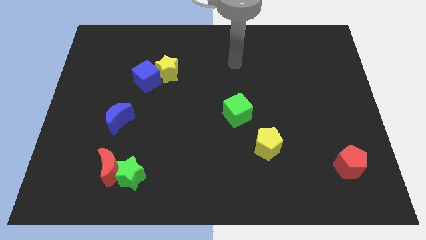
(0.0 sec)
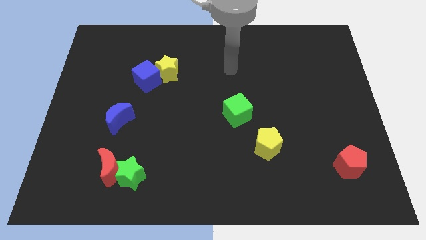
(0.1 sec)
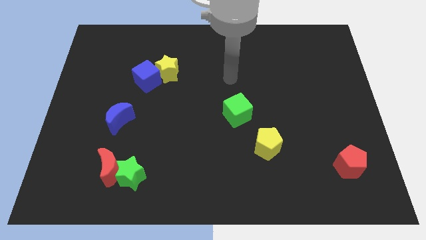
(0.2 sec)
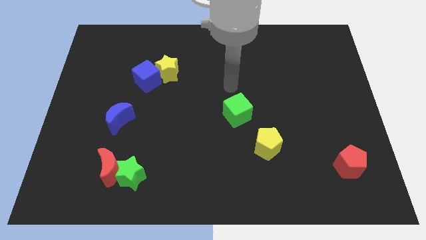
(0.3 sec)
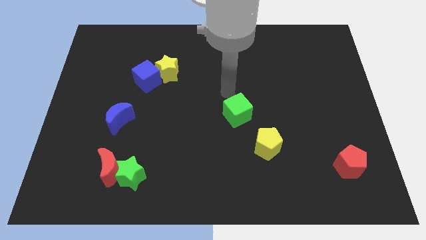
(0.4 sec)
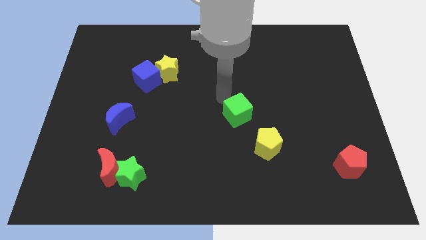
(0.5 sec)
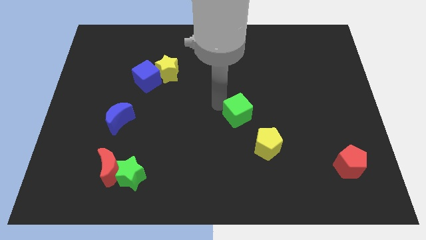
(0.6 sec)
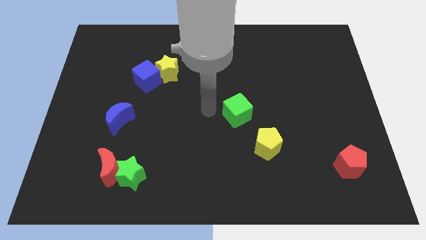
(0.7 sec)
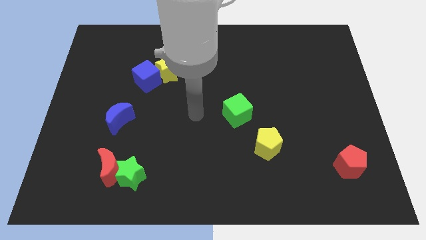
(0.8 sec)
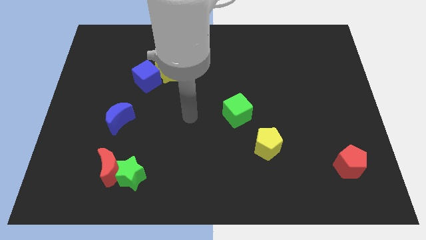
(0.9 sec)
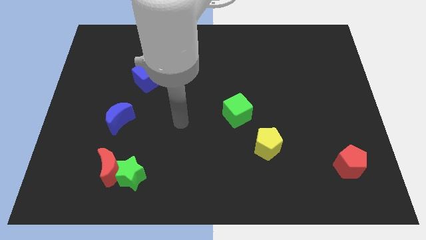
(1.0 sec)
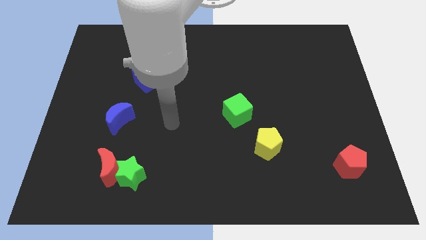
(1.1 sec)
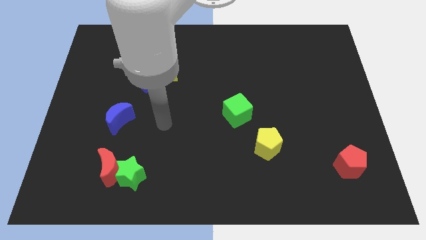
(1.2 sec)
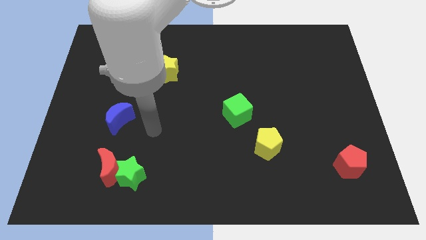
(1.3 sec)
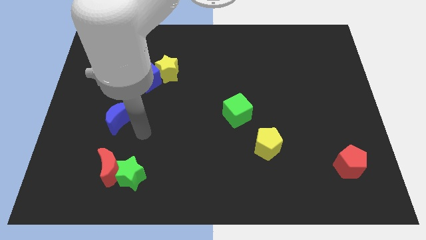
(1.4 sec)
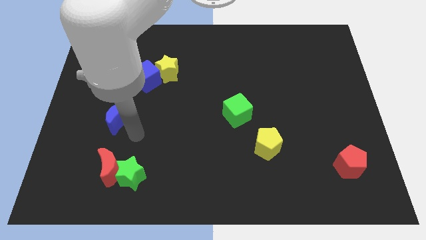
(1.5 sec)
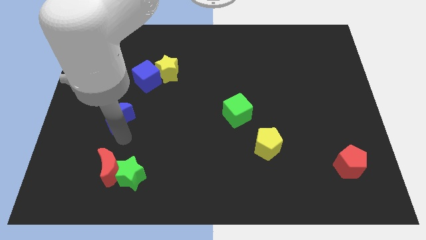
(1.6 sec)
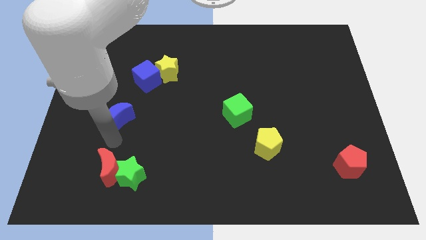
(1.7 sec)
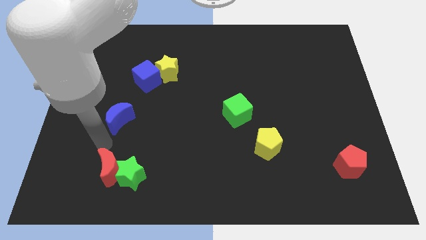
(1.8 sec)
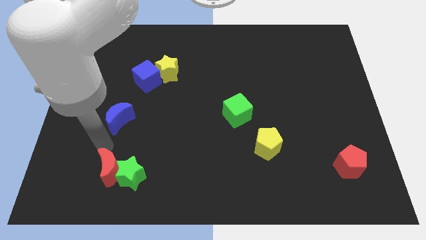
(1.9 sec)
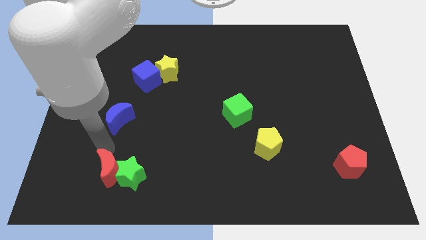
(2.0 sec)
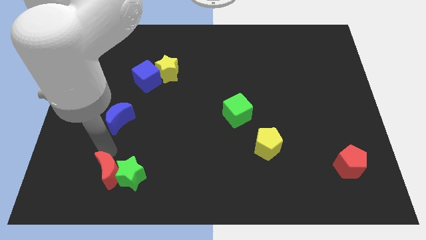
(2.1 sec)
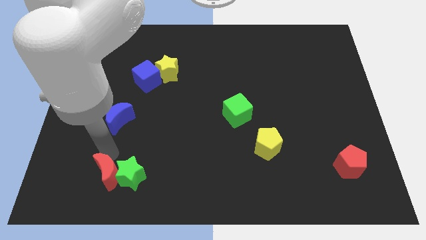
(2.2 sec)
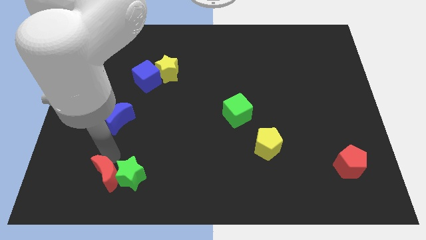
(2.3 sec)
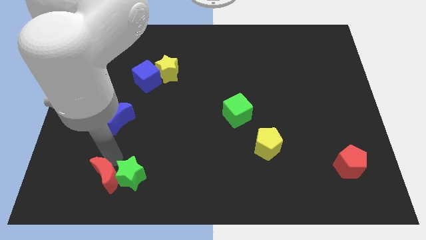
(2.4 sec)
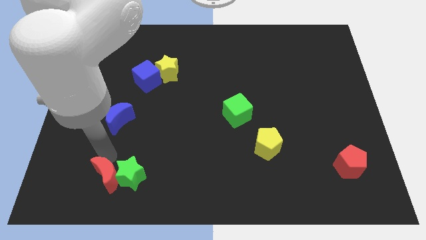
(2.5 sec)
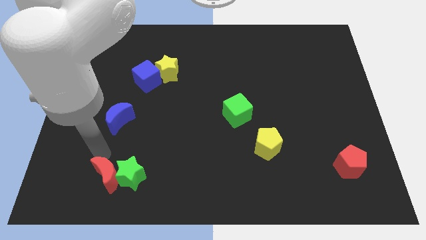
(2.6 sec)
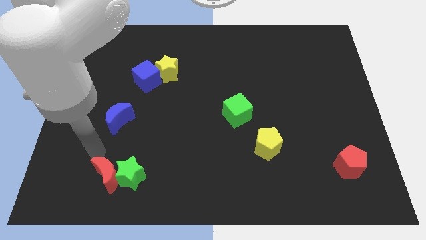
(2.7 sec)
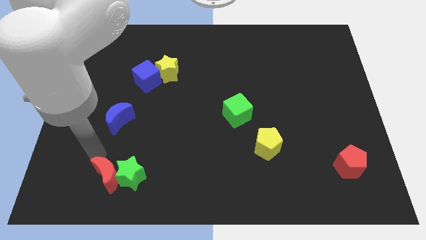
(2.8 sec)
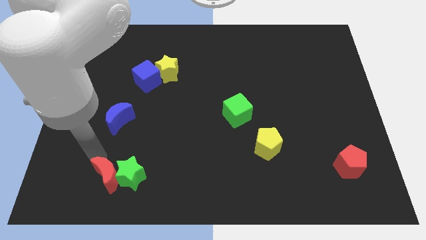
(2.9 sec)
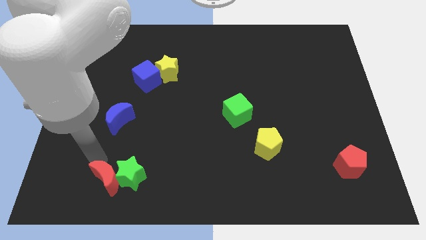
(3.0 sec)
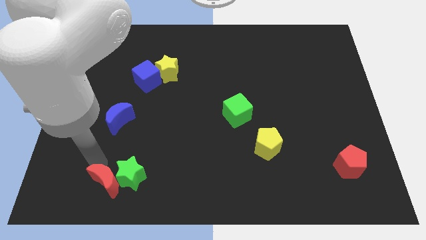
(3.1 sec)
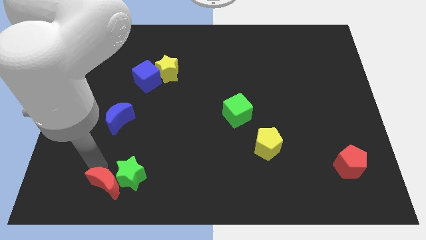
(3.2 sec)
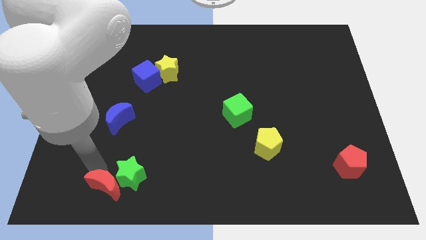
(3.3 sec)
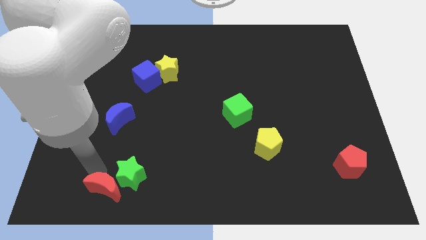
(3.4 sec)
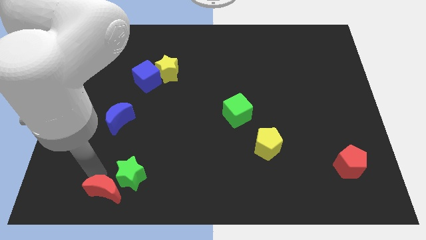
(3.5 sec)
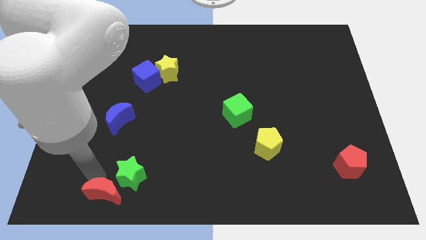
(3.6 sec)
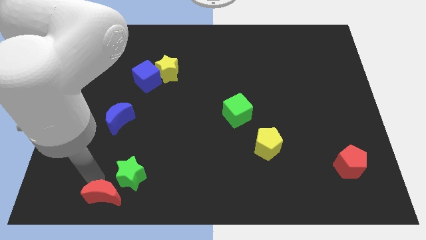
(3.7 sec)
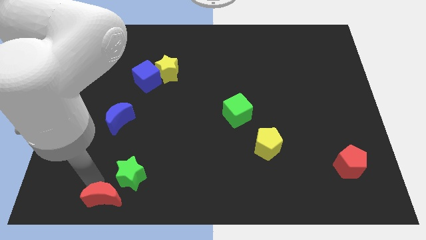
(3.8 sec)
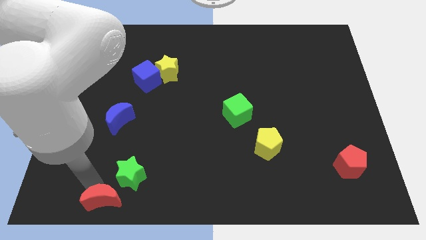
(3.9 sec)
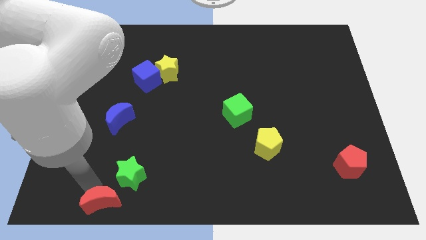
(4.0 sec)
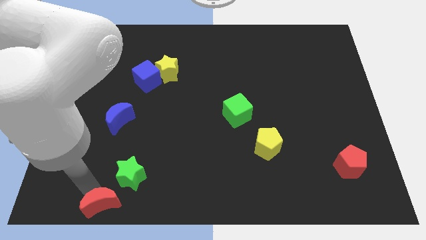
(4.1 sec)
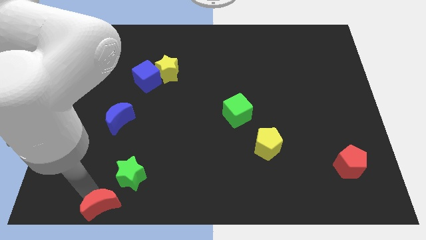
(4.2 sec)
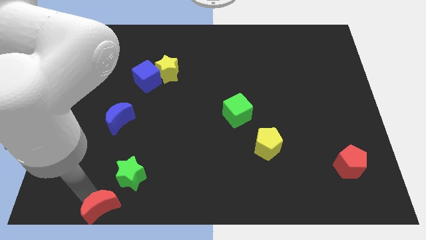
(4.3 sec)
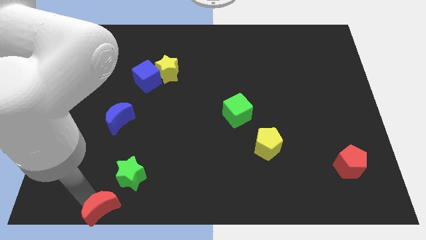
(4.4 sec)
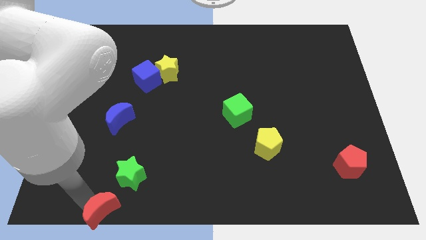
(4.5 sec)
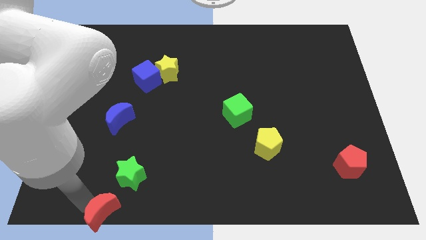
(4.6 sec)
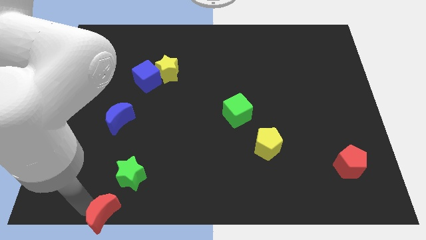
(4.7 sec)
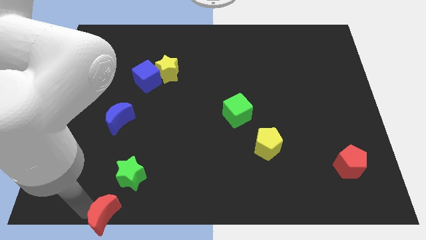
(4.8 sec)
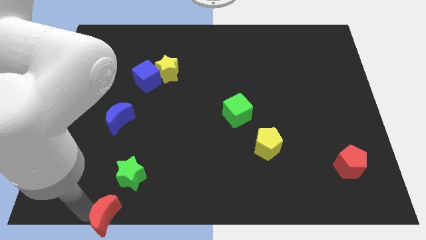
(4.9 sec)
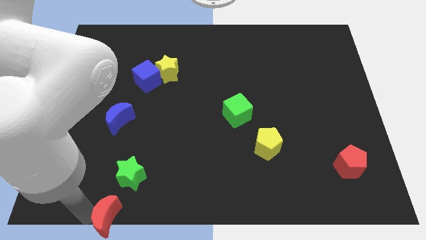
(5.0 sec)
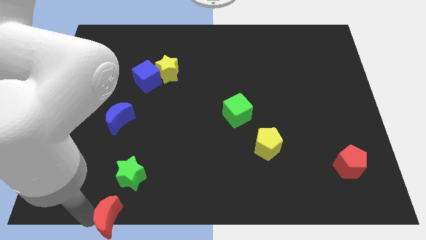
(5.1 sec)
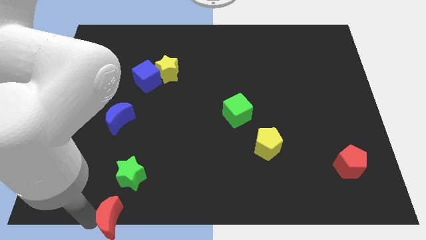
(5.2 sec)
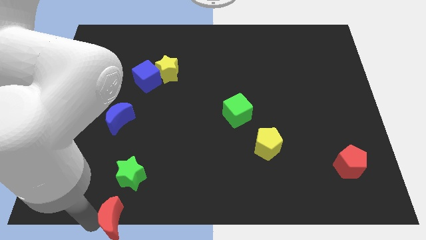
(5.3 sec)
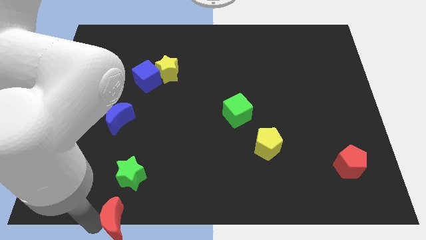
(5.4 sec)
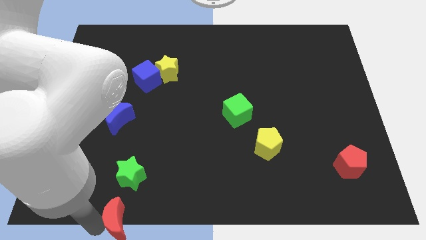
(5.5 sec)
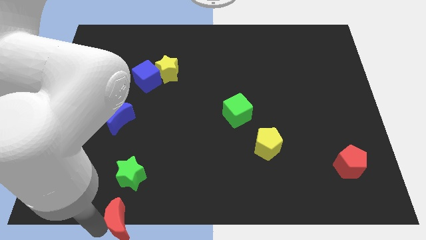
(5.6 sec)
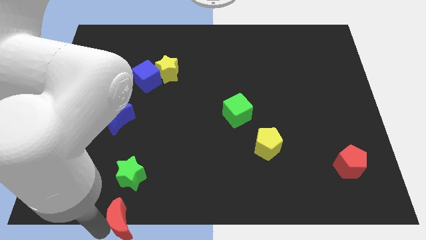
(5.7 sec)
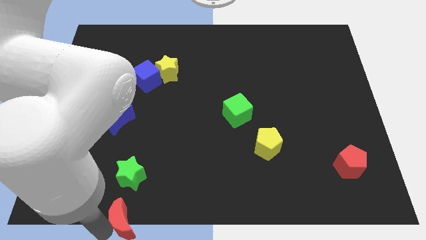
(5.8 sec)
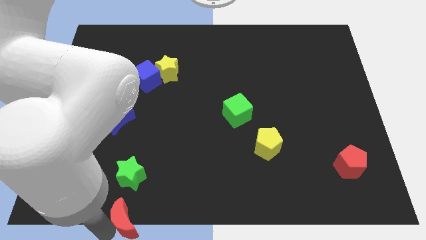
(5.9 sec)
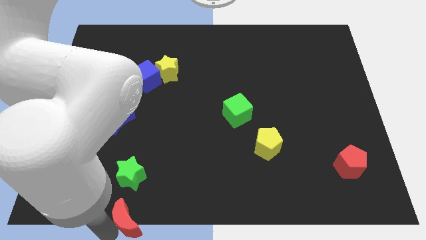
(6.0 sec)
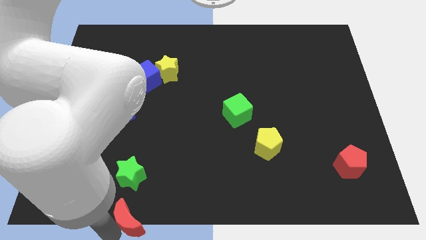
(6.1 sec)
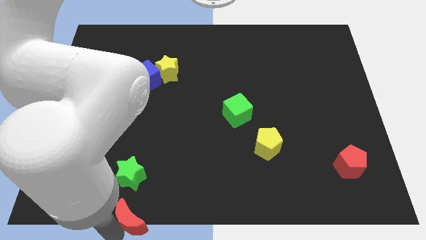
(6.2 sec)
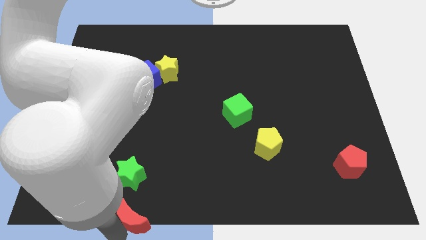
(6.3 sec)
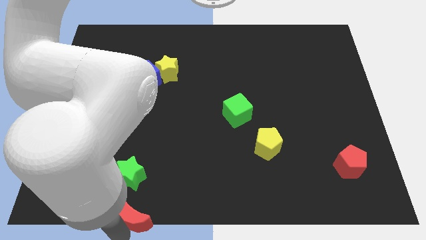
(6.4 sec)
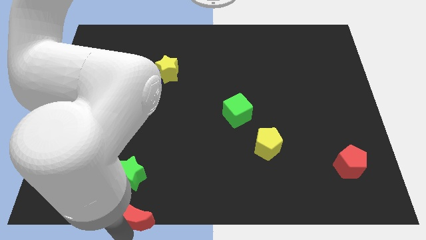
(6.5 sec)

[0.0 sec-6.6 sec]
put the red moon to the bottom side
